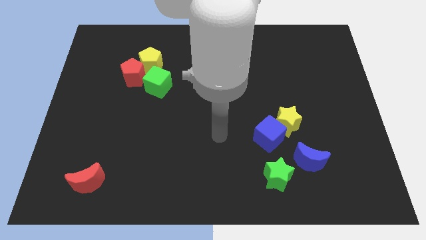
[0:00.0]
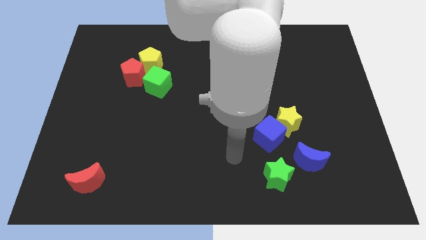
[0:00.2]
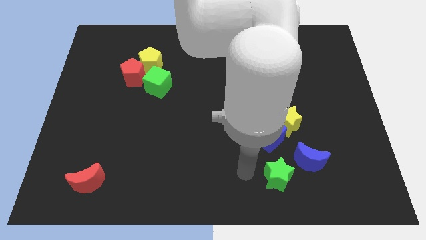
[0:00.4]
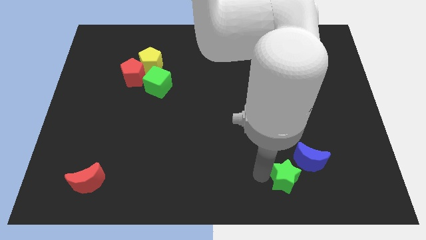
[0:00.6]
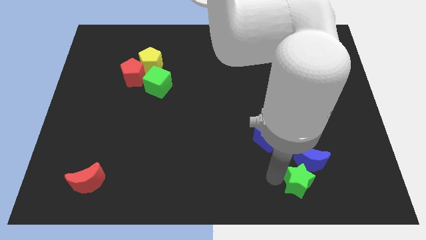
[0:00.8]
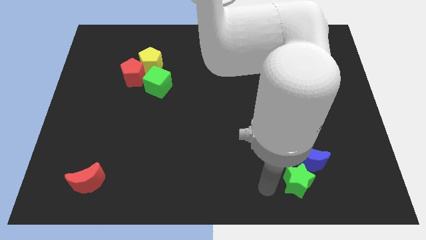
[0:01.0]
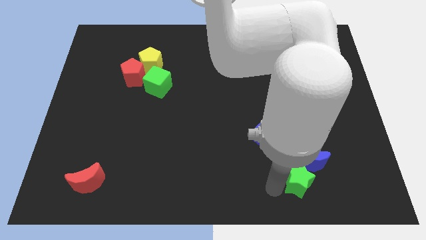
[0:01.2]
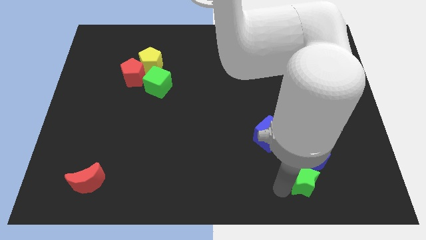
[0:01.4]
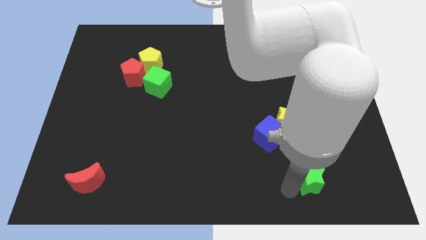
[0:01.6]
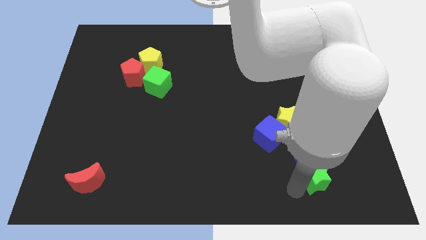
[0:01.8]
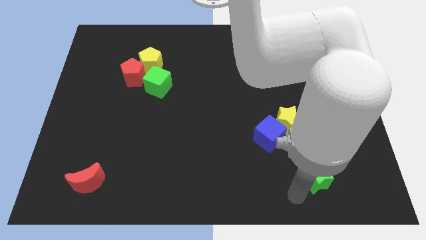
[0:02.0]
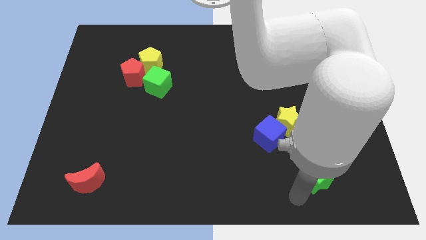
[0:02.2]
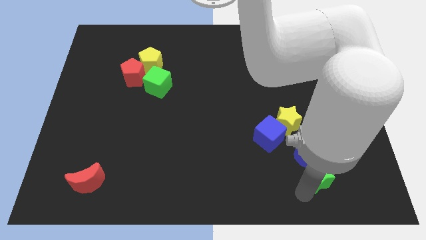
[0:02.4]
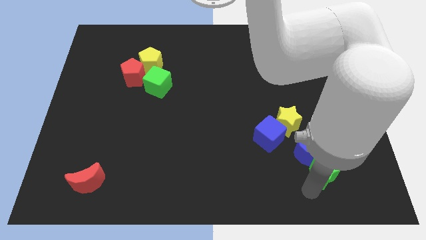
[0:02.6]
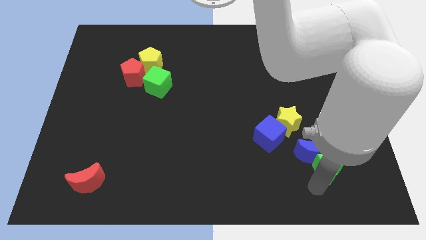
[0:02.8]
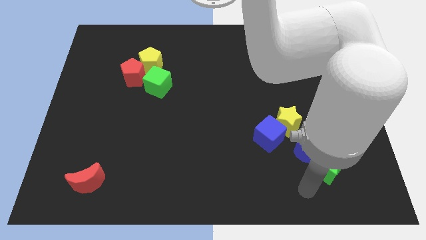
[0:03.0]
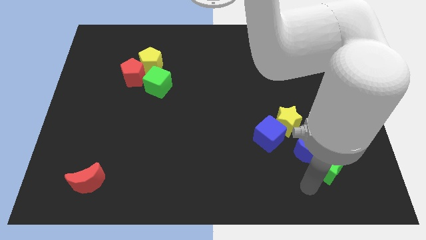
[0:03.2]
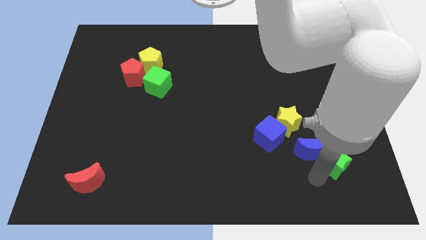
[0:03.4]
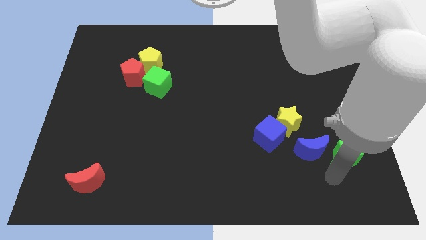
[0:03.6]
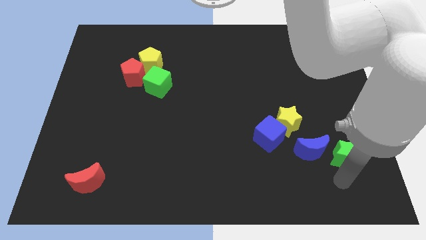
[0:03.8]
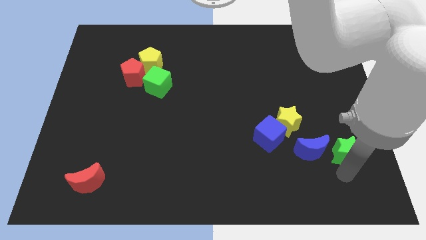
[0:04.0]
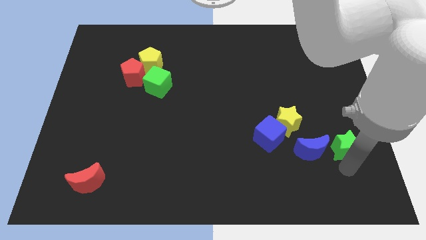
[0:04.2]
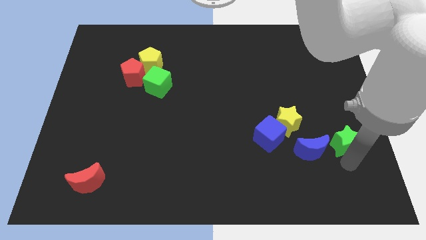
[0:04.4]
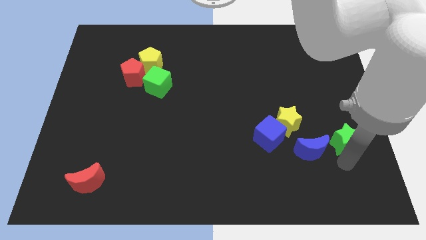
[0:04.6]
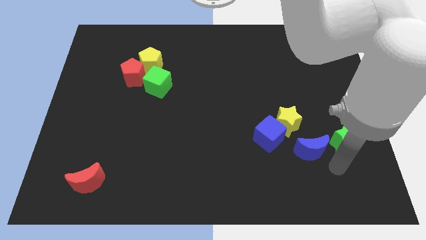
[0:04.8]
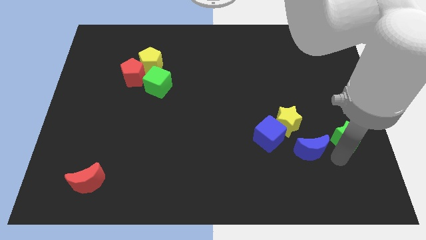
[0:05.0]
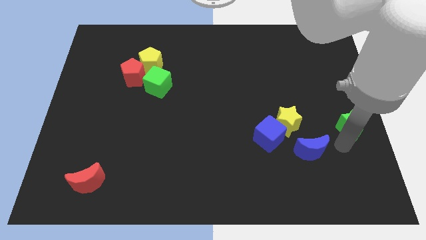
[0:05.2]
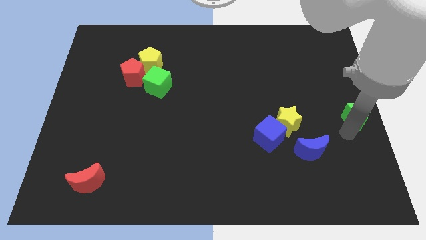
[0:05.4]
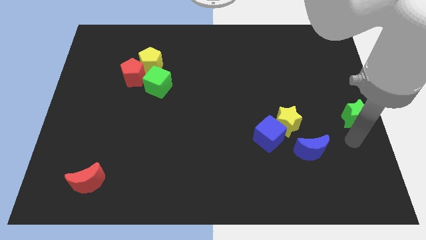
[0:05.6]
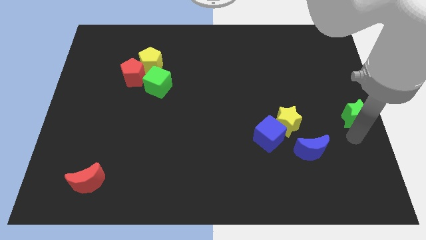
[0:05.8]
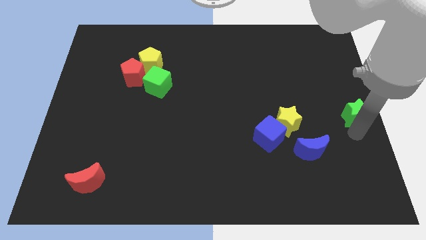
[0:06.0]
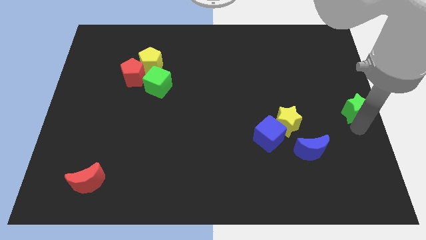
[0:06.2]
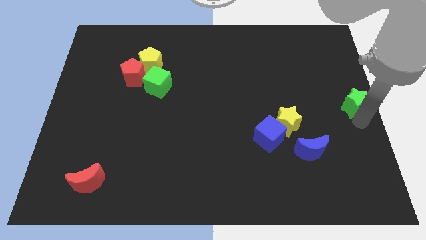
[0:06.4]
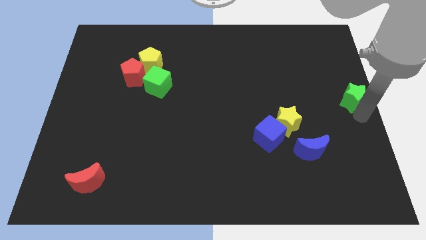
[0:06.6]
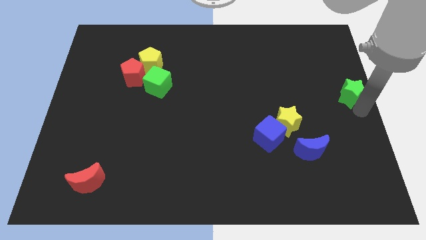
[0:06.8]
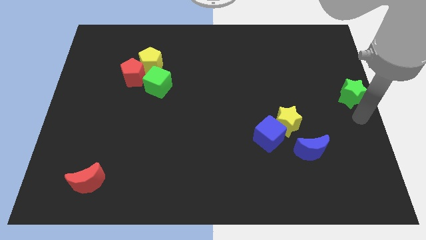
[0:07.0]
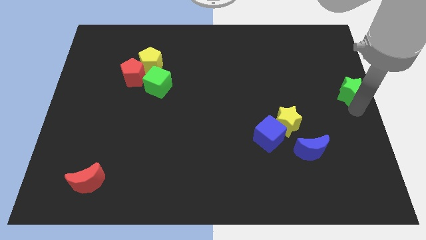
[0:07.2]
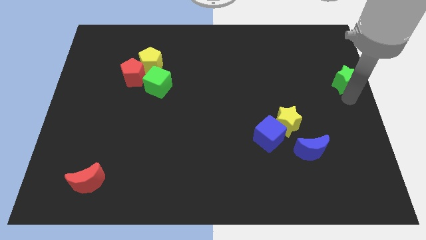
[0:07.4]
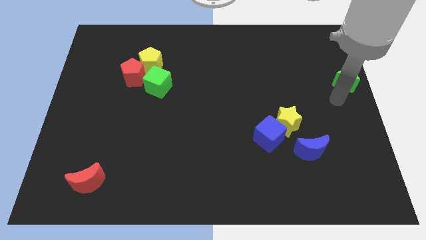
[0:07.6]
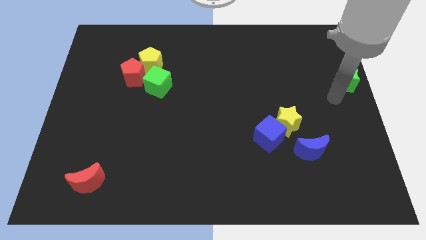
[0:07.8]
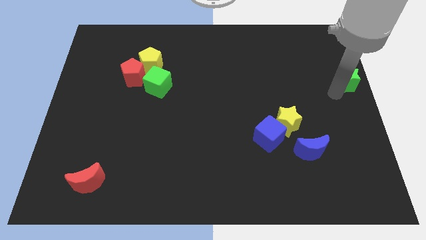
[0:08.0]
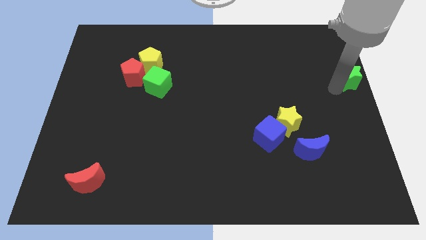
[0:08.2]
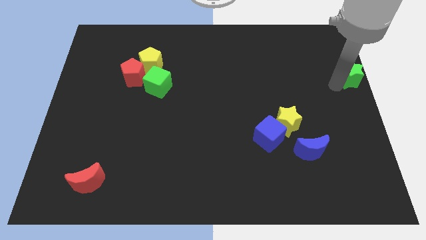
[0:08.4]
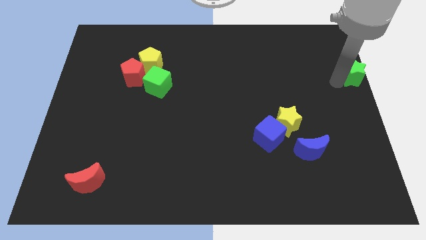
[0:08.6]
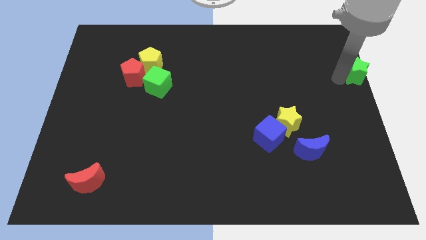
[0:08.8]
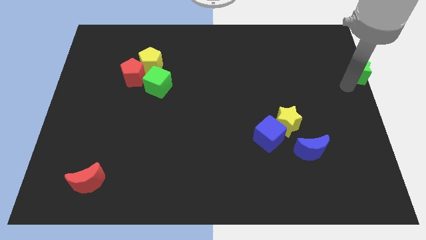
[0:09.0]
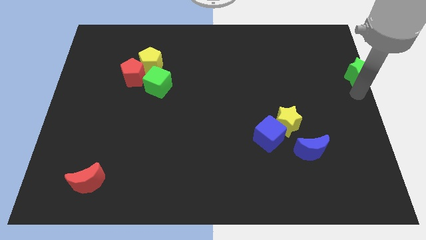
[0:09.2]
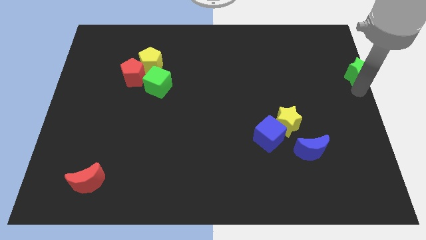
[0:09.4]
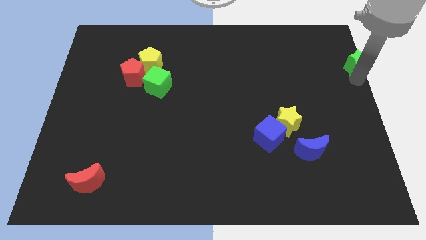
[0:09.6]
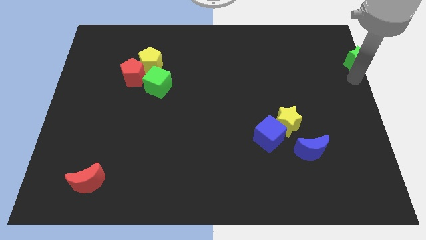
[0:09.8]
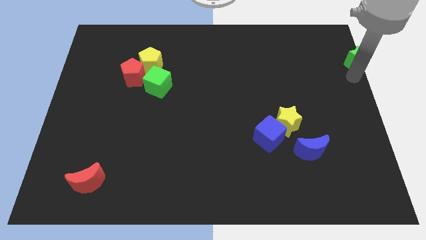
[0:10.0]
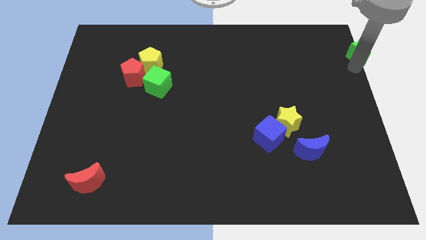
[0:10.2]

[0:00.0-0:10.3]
move the green star to the upper right corner

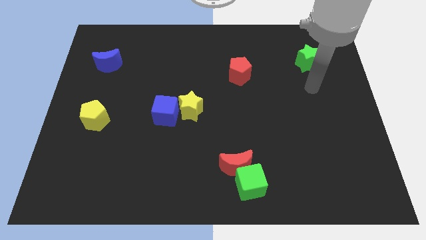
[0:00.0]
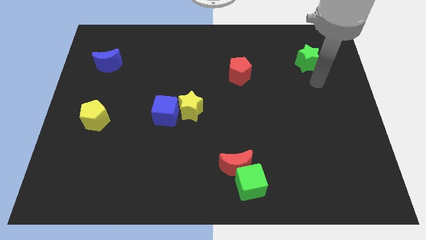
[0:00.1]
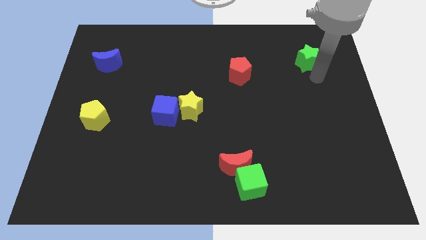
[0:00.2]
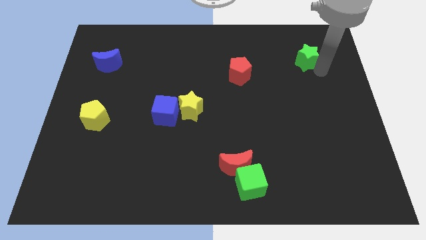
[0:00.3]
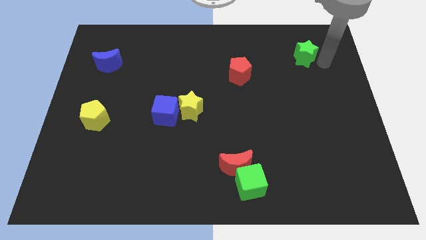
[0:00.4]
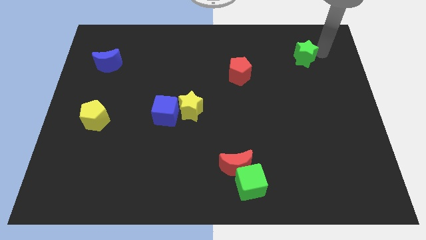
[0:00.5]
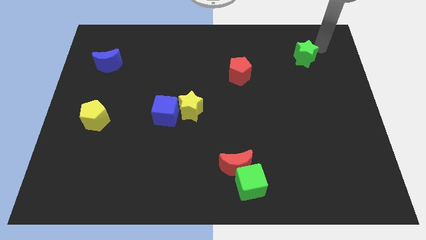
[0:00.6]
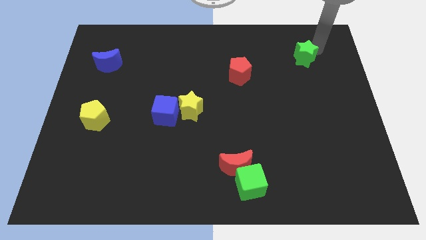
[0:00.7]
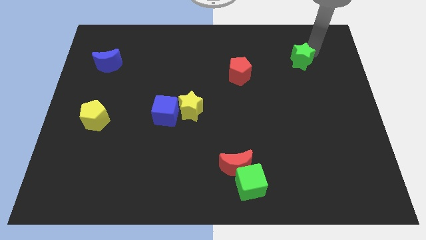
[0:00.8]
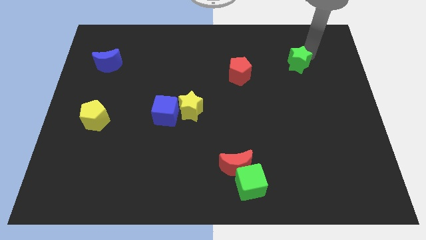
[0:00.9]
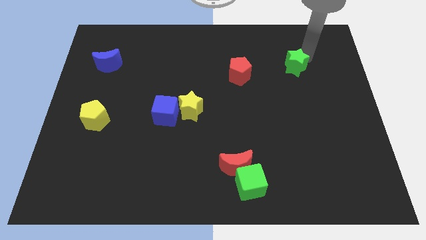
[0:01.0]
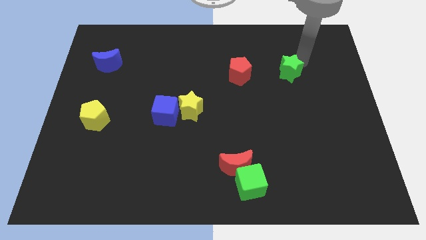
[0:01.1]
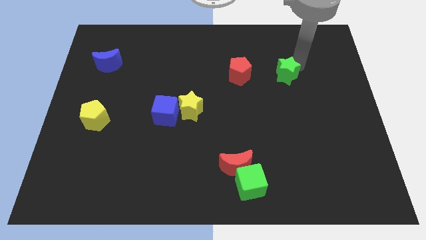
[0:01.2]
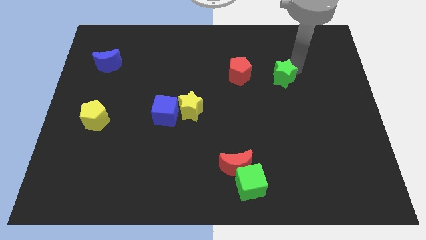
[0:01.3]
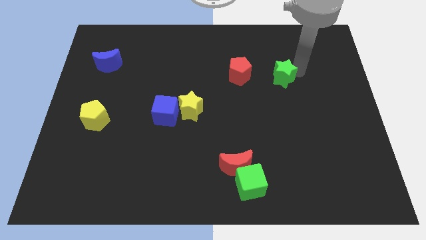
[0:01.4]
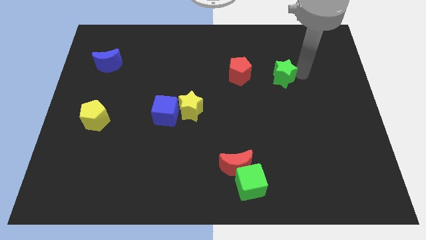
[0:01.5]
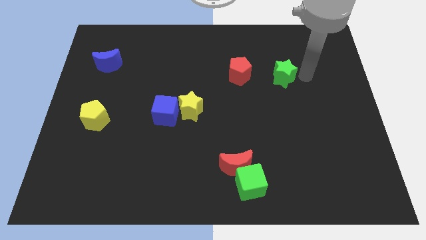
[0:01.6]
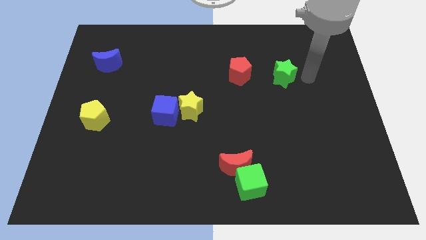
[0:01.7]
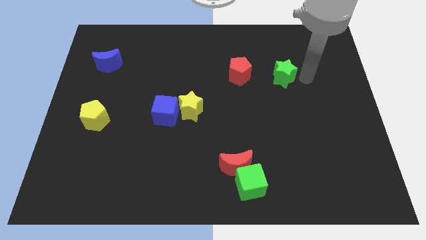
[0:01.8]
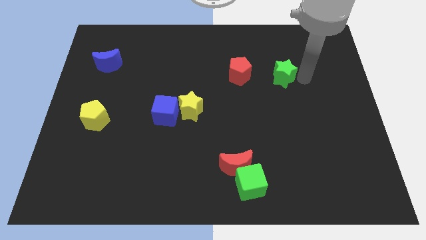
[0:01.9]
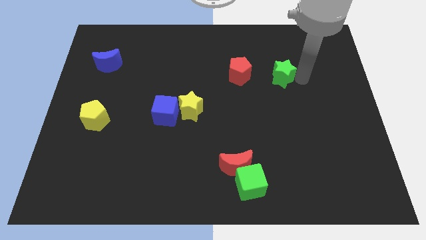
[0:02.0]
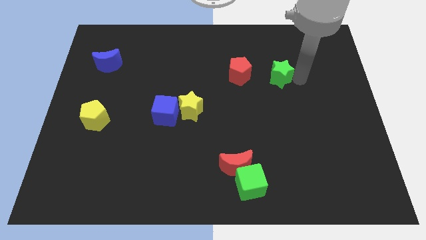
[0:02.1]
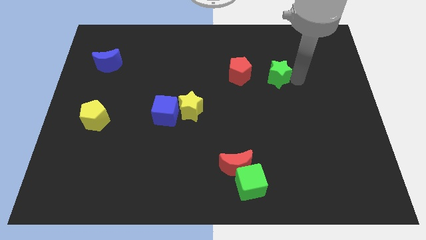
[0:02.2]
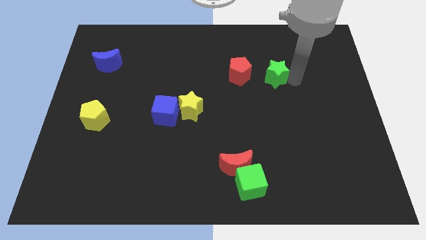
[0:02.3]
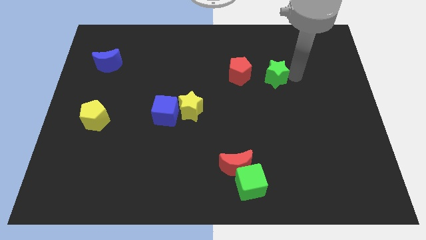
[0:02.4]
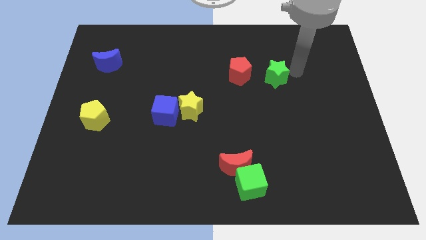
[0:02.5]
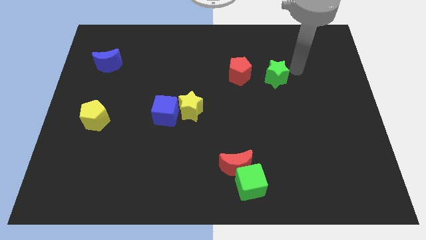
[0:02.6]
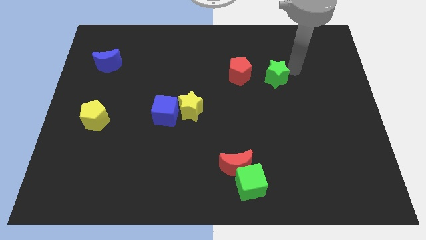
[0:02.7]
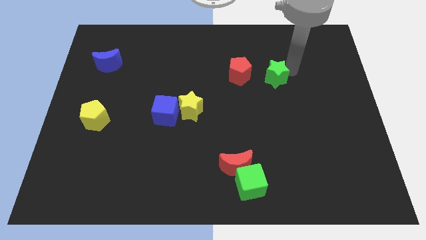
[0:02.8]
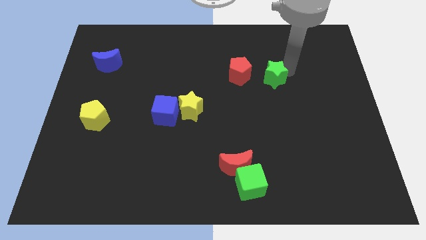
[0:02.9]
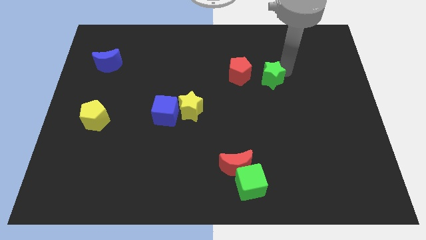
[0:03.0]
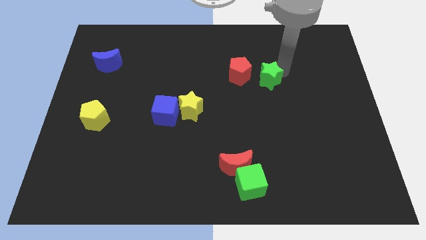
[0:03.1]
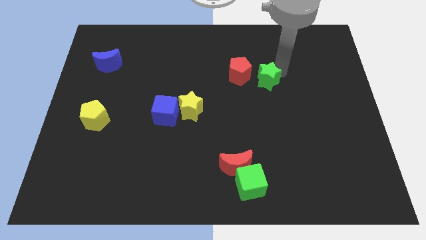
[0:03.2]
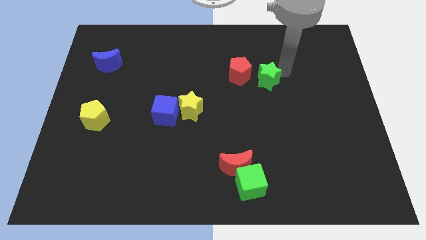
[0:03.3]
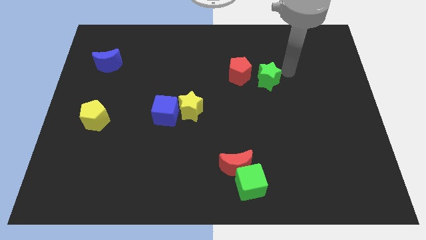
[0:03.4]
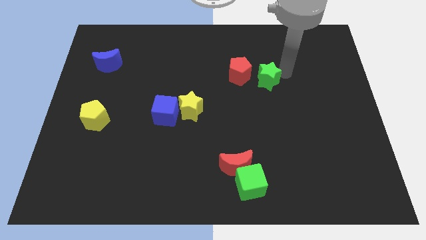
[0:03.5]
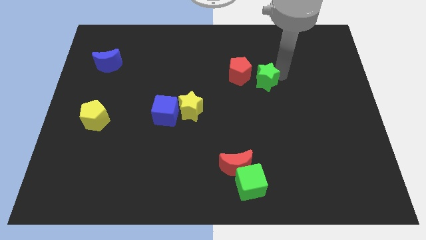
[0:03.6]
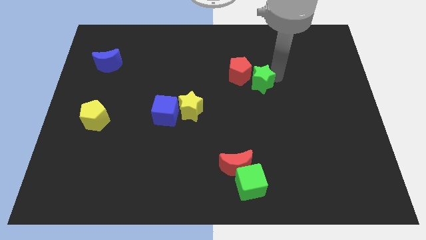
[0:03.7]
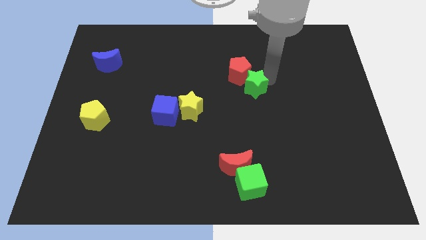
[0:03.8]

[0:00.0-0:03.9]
move the green star to the middle of the board
